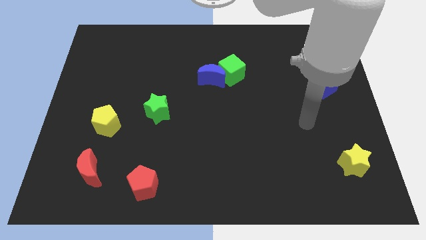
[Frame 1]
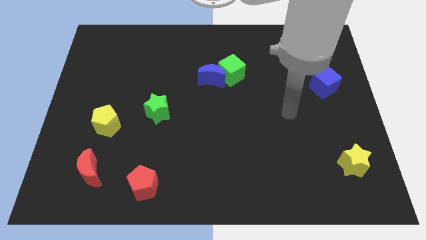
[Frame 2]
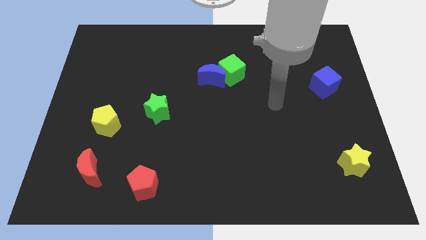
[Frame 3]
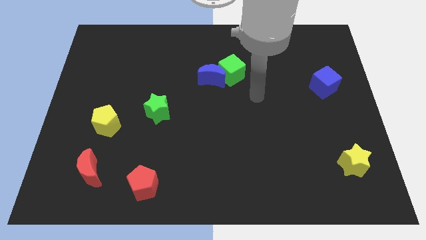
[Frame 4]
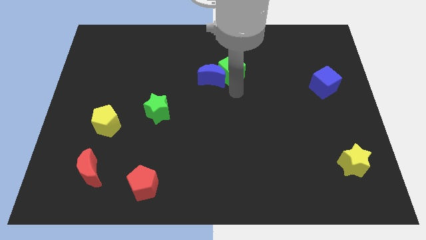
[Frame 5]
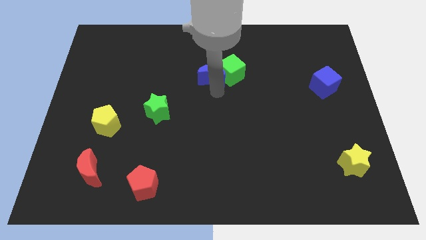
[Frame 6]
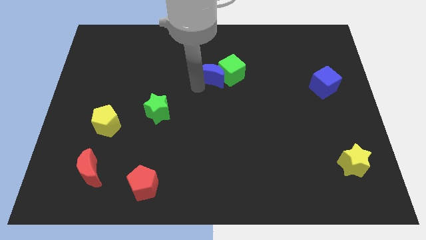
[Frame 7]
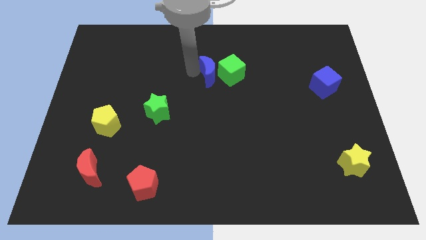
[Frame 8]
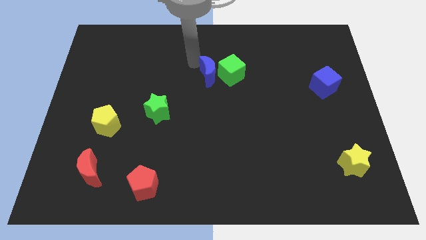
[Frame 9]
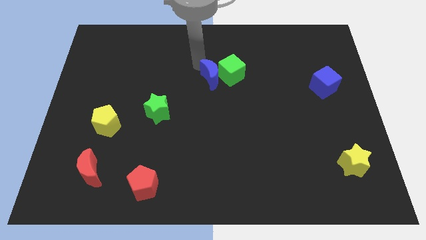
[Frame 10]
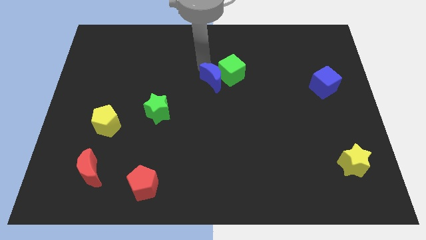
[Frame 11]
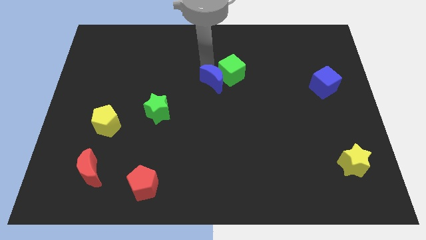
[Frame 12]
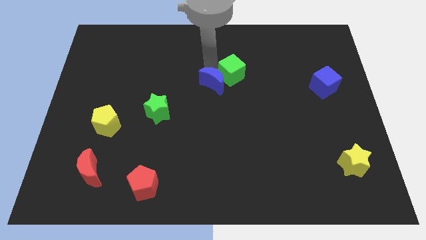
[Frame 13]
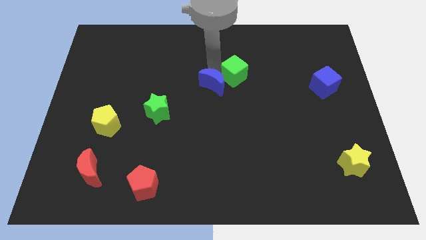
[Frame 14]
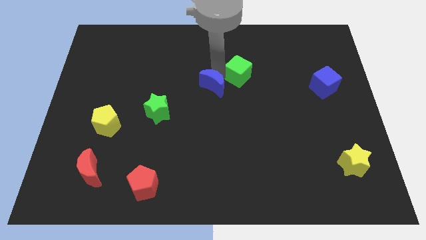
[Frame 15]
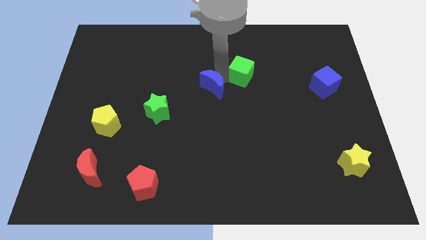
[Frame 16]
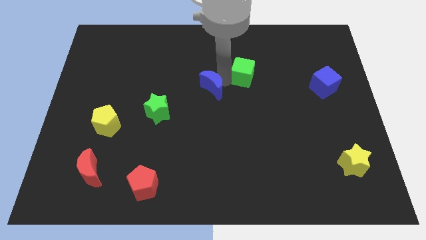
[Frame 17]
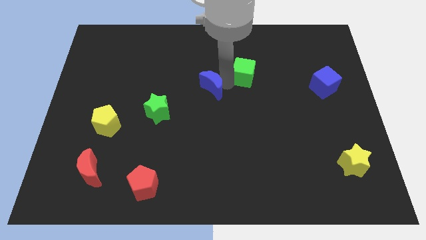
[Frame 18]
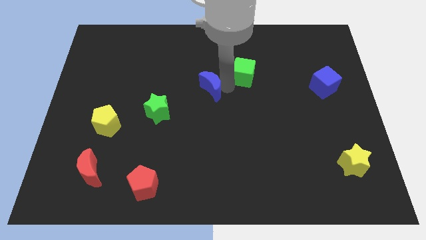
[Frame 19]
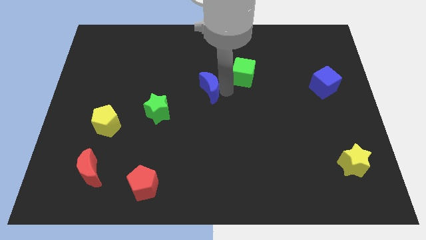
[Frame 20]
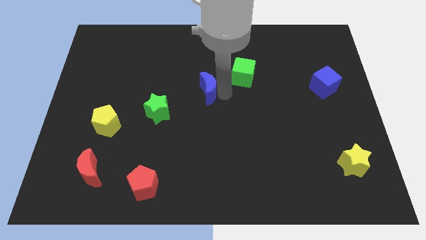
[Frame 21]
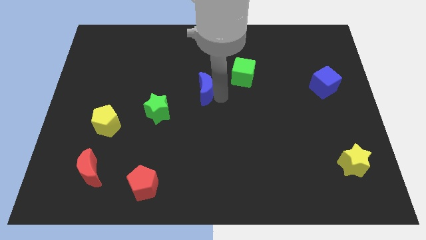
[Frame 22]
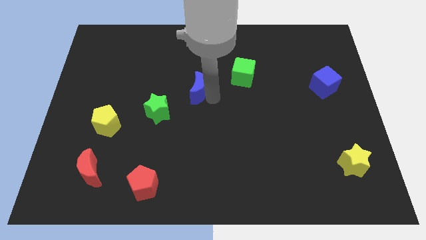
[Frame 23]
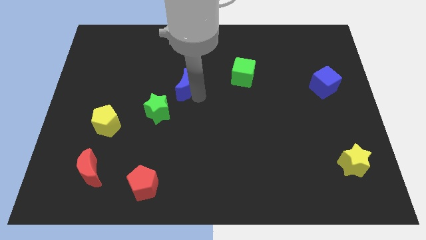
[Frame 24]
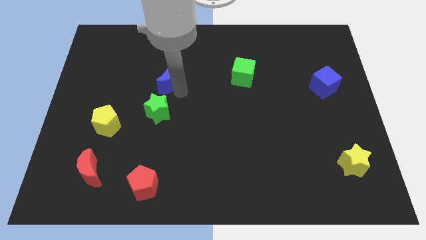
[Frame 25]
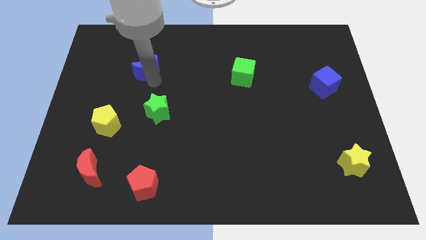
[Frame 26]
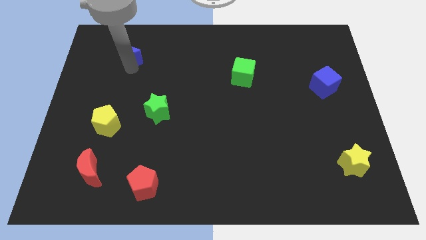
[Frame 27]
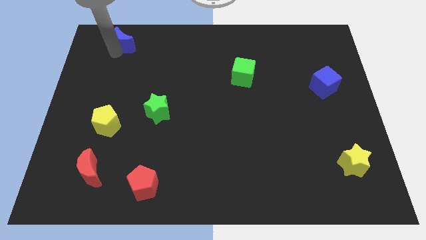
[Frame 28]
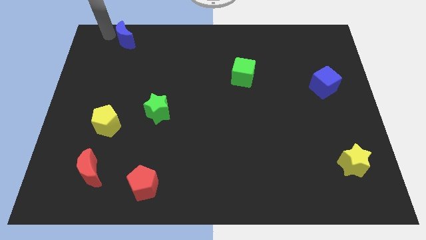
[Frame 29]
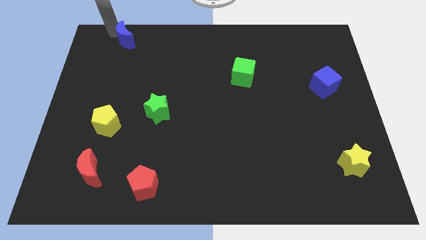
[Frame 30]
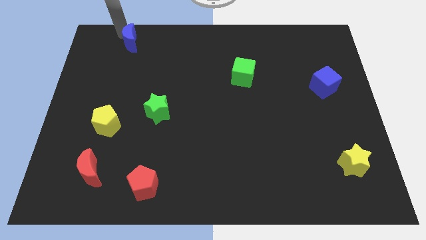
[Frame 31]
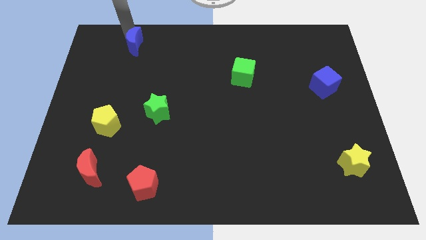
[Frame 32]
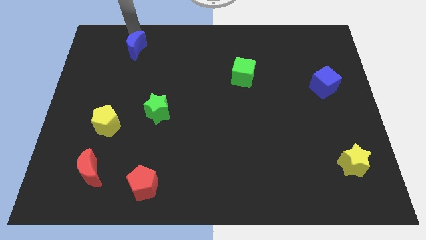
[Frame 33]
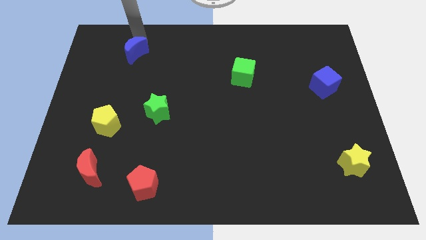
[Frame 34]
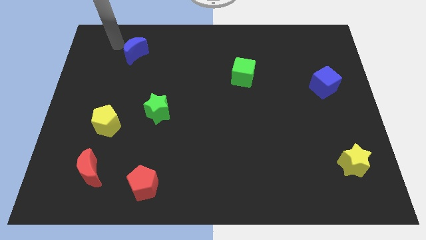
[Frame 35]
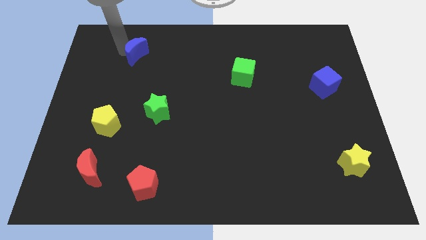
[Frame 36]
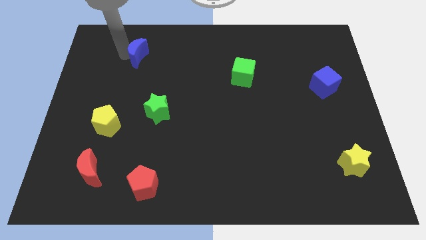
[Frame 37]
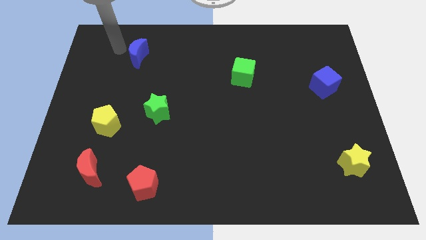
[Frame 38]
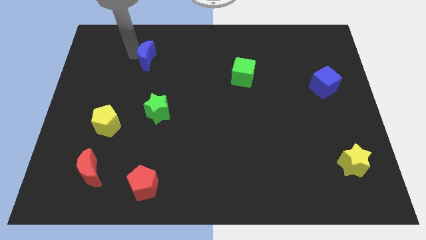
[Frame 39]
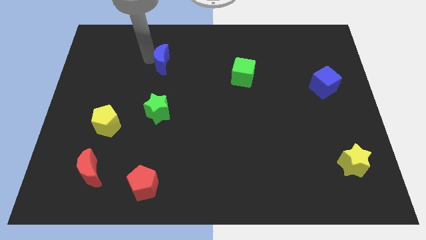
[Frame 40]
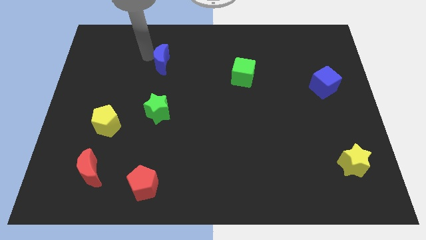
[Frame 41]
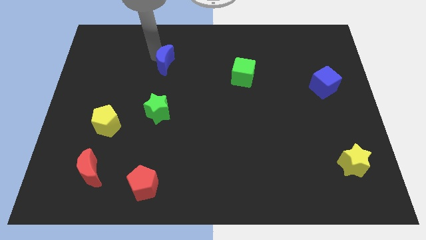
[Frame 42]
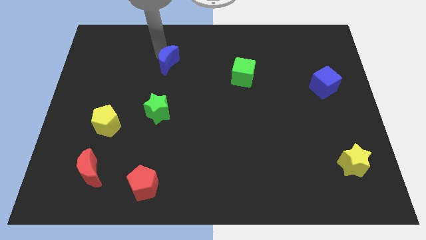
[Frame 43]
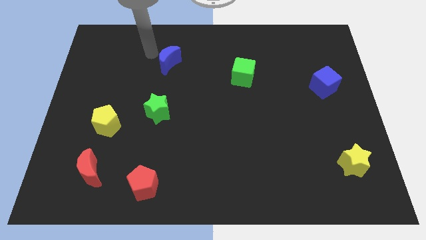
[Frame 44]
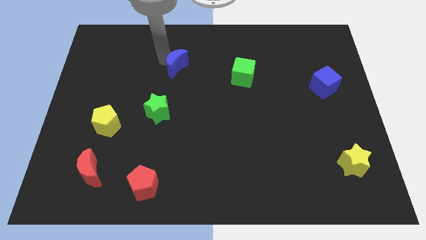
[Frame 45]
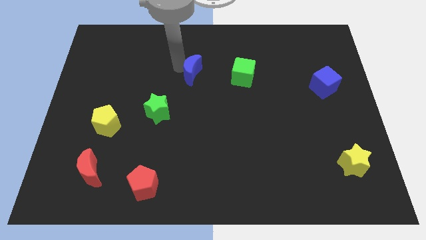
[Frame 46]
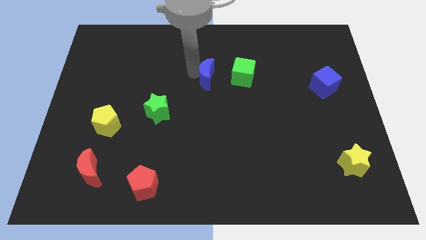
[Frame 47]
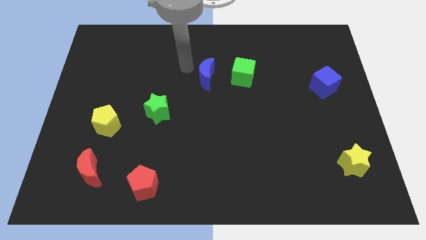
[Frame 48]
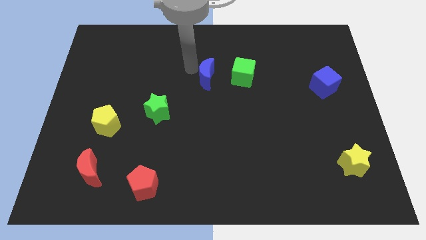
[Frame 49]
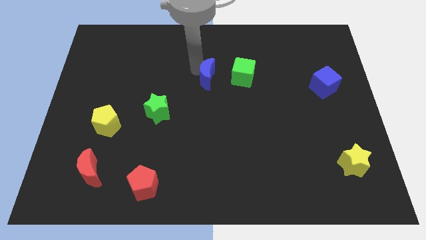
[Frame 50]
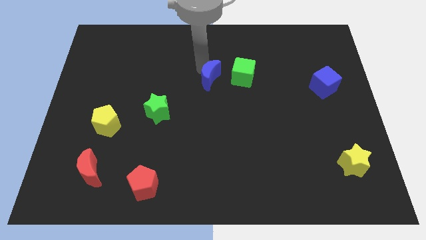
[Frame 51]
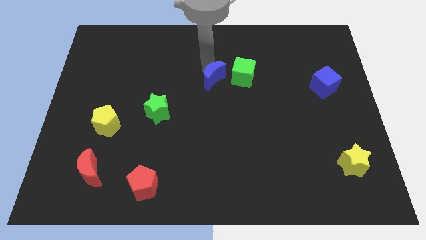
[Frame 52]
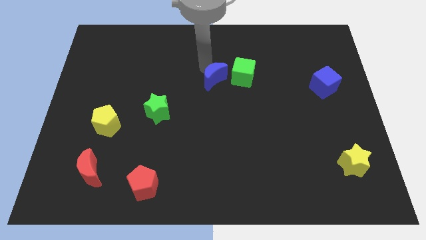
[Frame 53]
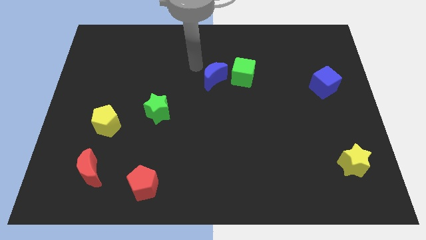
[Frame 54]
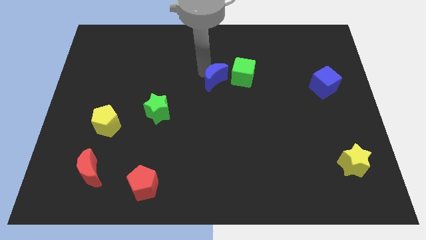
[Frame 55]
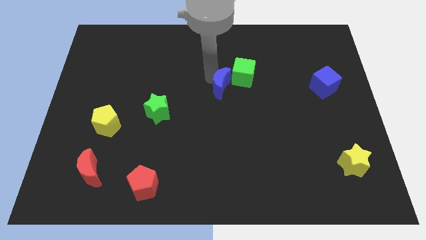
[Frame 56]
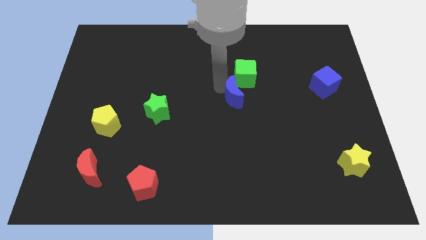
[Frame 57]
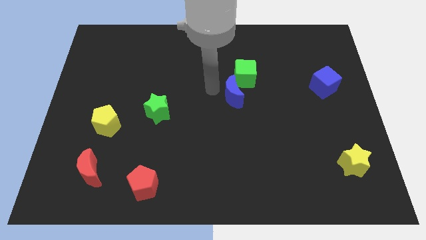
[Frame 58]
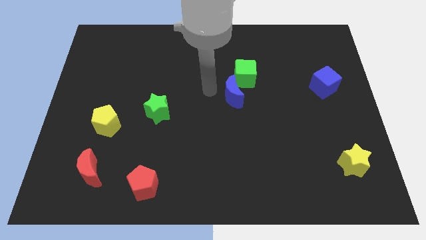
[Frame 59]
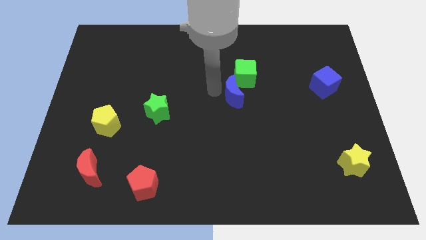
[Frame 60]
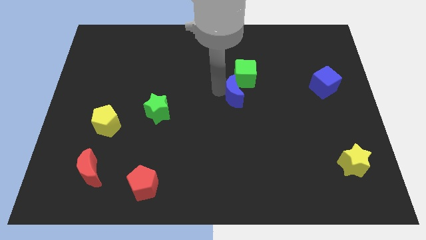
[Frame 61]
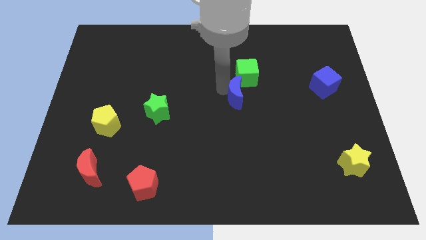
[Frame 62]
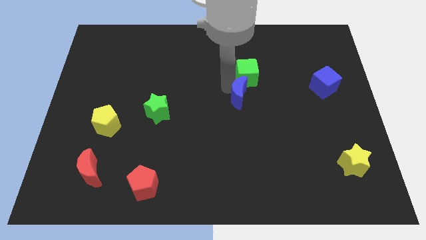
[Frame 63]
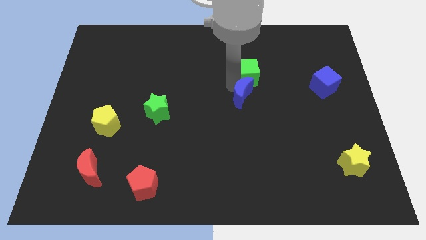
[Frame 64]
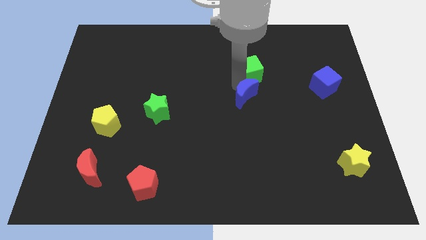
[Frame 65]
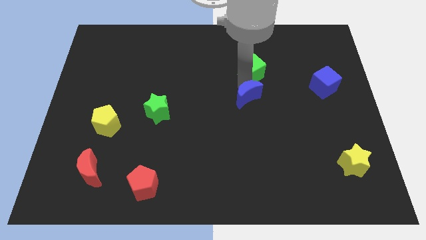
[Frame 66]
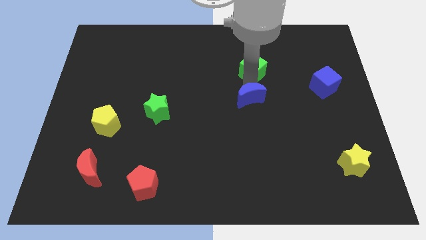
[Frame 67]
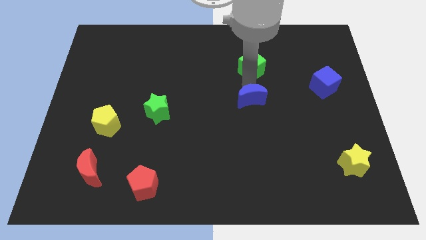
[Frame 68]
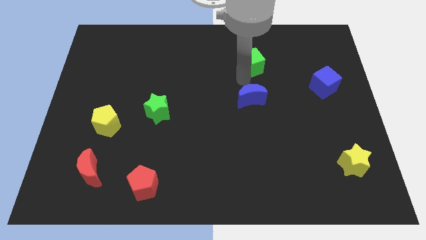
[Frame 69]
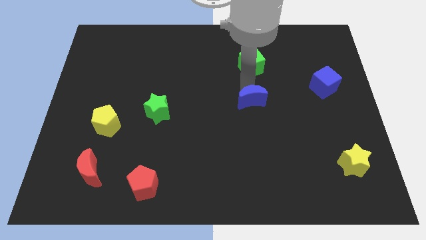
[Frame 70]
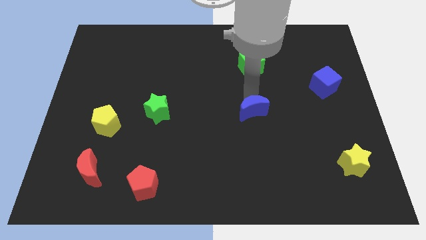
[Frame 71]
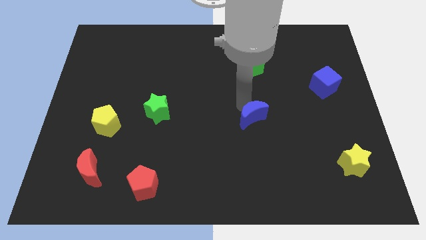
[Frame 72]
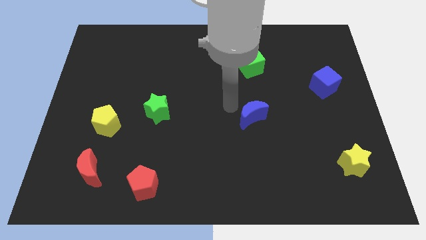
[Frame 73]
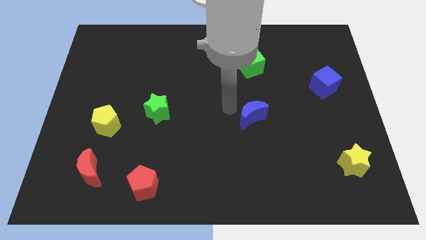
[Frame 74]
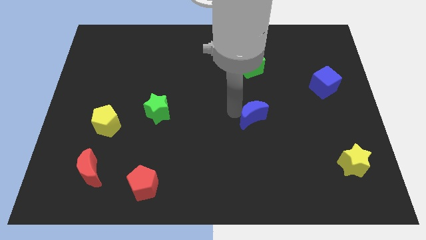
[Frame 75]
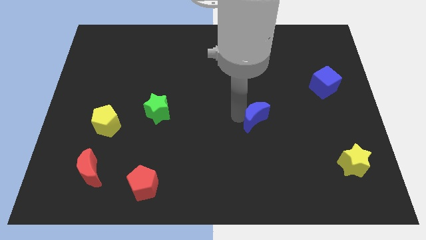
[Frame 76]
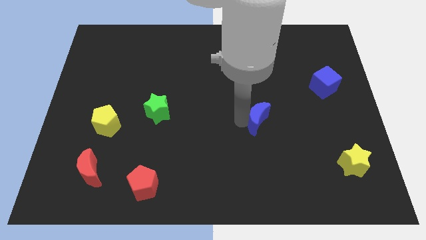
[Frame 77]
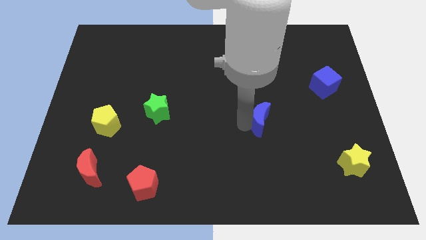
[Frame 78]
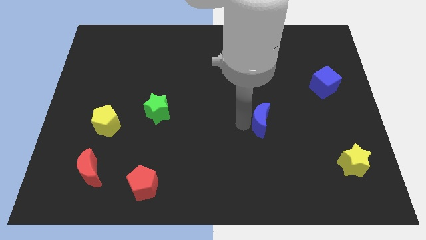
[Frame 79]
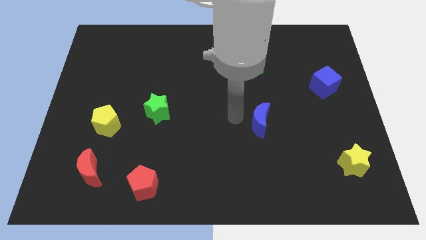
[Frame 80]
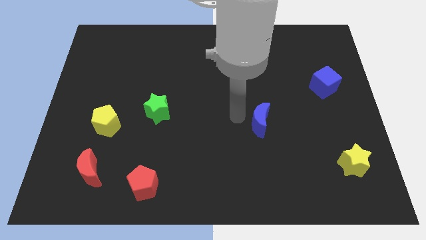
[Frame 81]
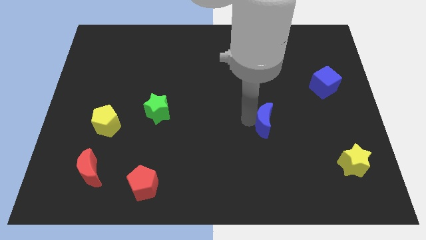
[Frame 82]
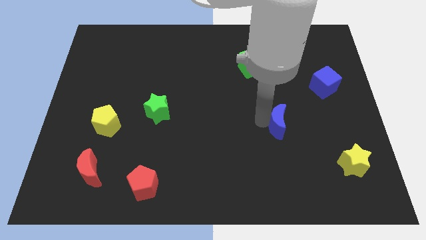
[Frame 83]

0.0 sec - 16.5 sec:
slide the blue moon downwards and to the right
